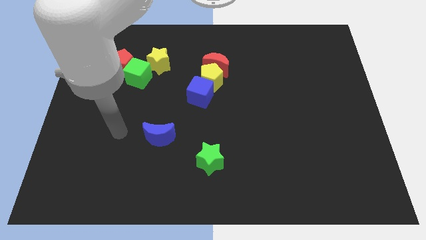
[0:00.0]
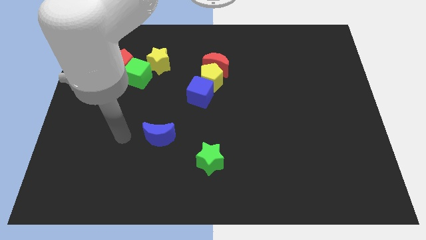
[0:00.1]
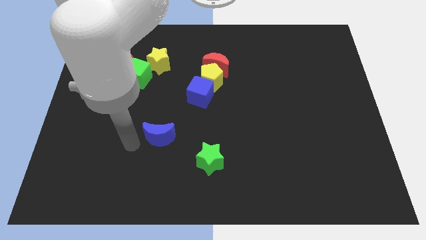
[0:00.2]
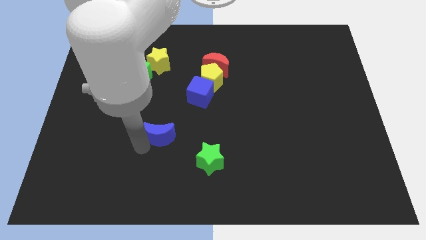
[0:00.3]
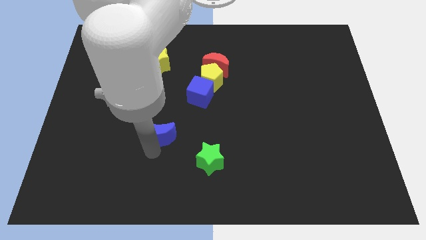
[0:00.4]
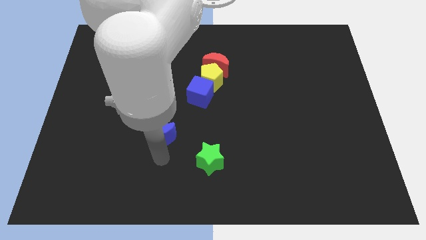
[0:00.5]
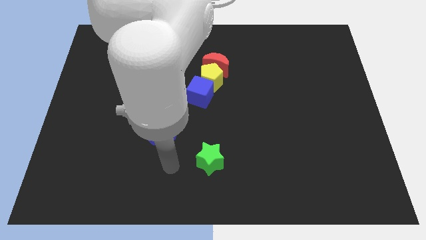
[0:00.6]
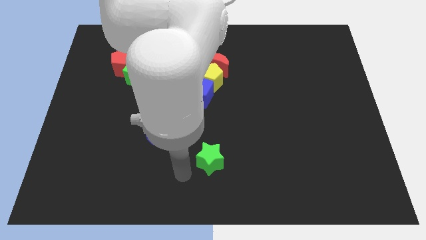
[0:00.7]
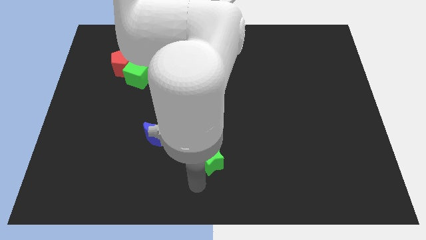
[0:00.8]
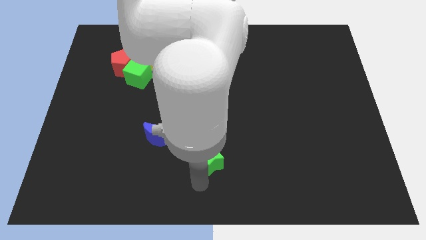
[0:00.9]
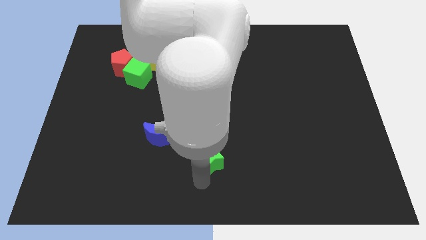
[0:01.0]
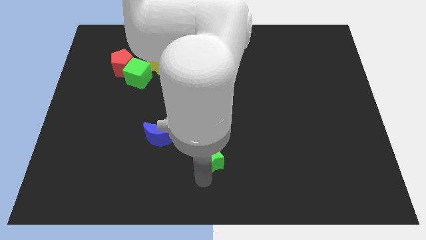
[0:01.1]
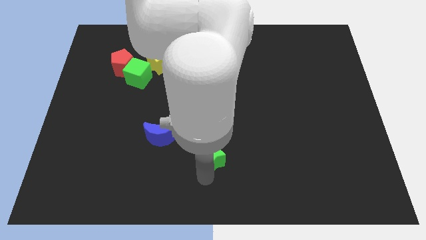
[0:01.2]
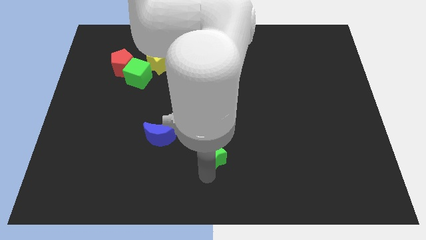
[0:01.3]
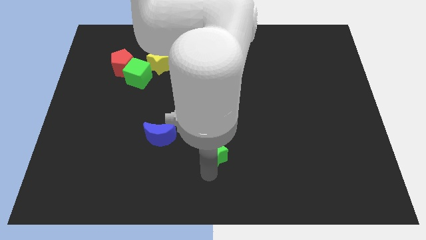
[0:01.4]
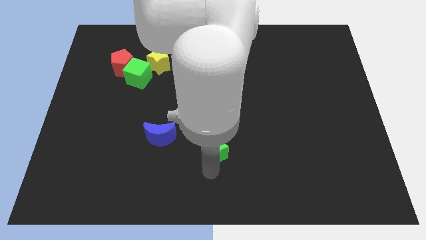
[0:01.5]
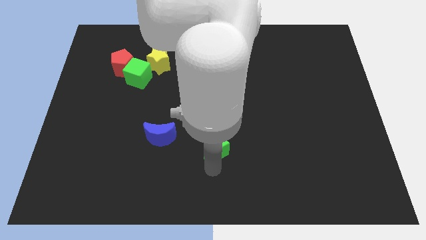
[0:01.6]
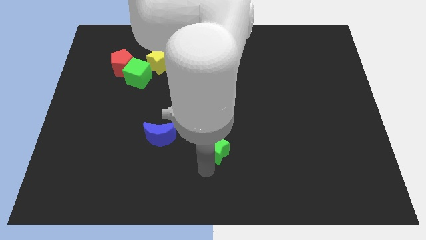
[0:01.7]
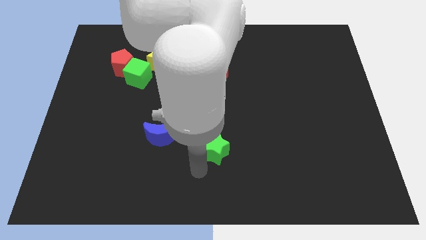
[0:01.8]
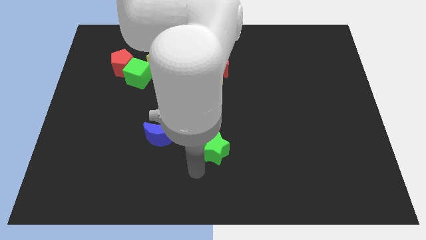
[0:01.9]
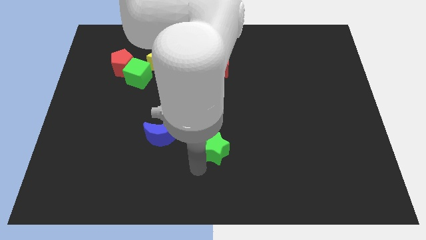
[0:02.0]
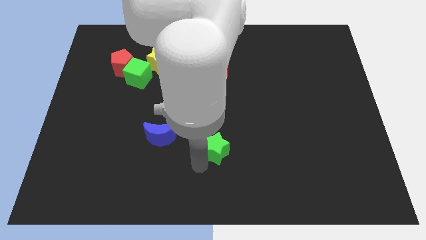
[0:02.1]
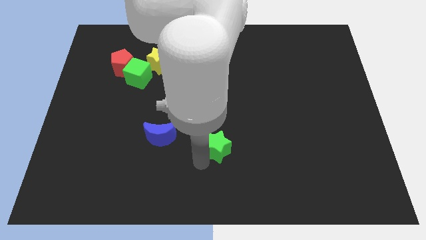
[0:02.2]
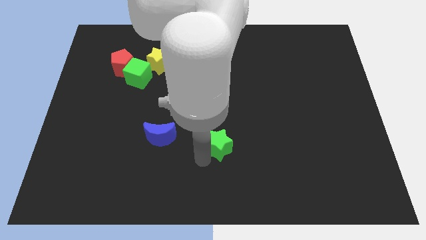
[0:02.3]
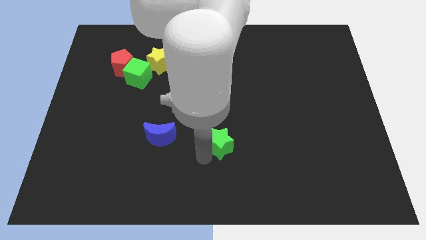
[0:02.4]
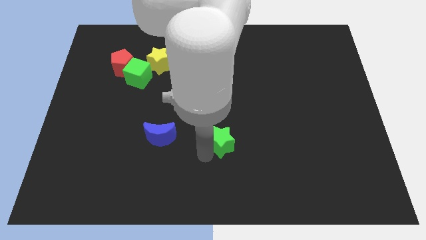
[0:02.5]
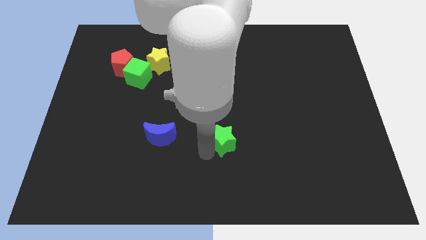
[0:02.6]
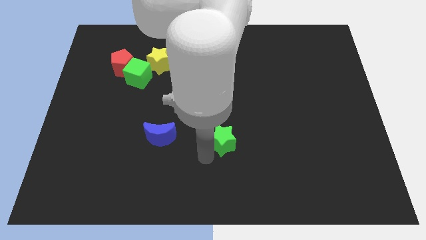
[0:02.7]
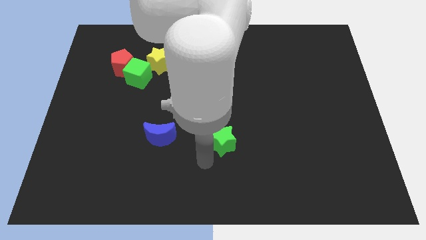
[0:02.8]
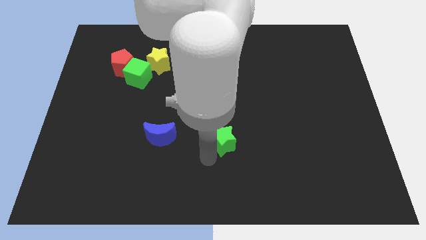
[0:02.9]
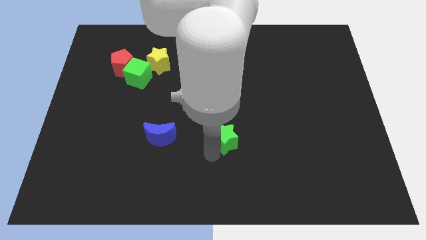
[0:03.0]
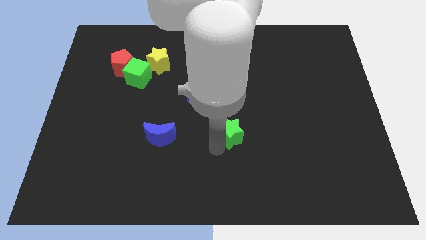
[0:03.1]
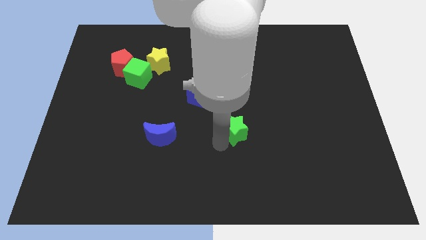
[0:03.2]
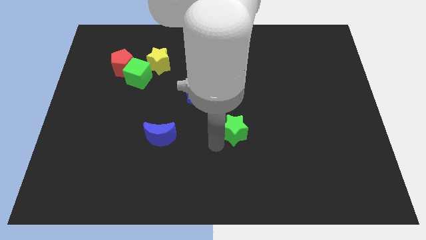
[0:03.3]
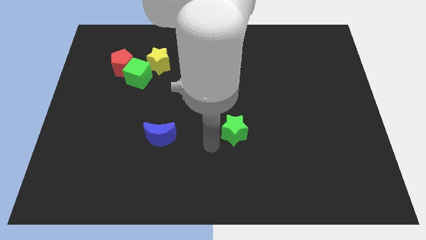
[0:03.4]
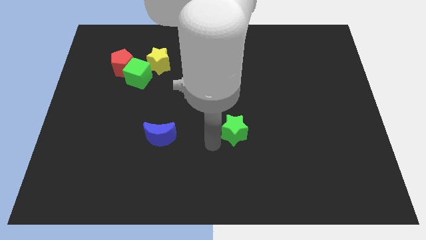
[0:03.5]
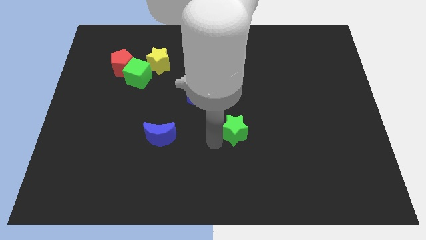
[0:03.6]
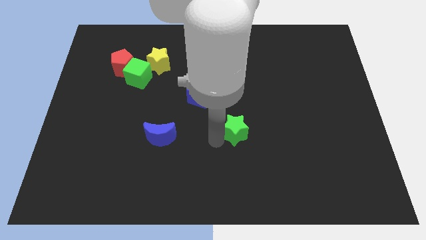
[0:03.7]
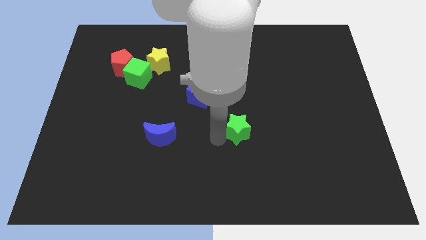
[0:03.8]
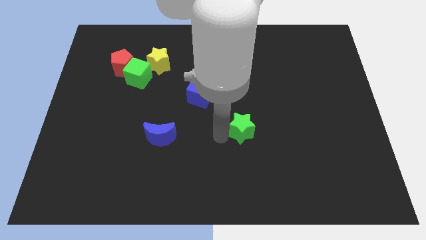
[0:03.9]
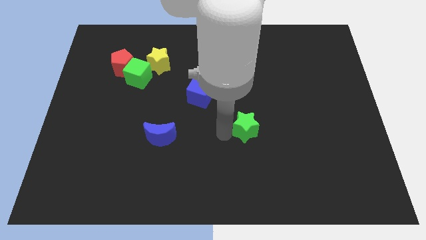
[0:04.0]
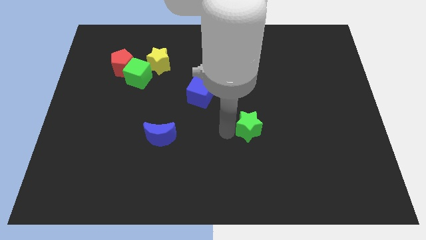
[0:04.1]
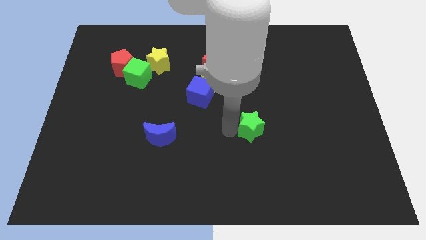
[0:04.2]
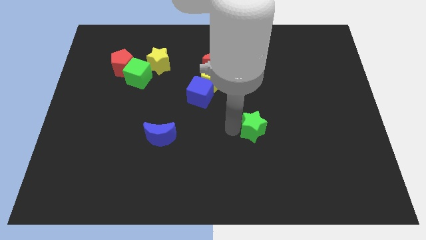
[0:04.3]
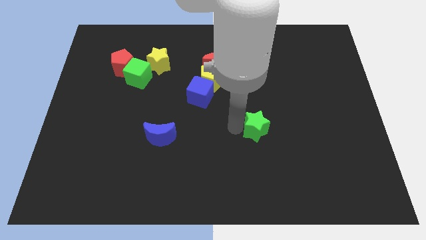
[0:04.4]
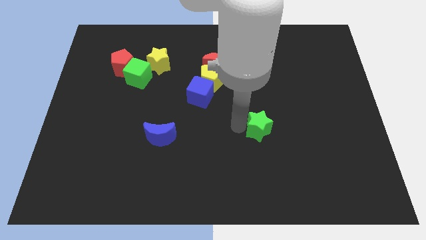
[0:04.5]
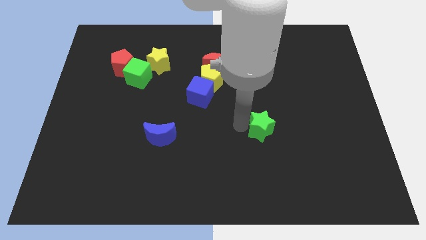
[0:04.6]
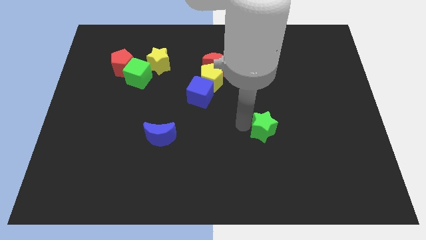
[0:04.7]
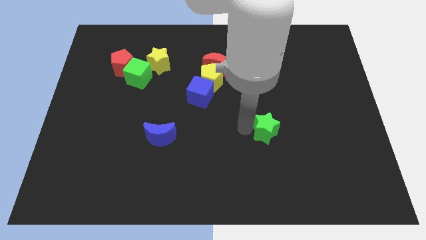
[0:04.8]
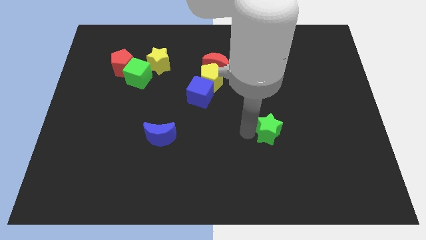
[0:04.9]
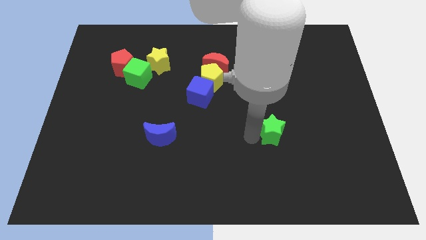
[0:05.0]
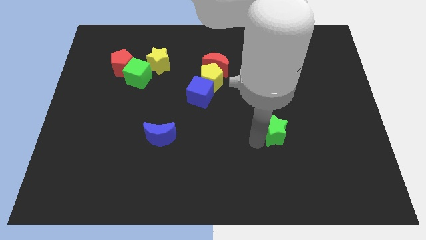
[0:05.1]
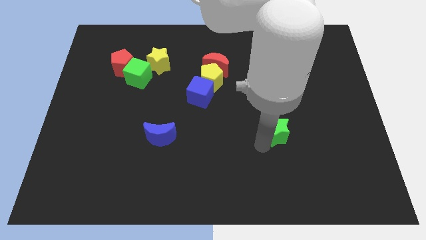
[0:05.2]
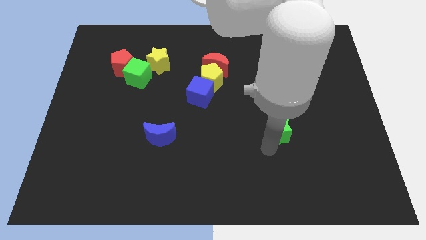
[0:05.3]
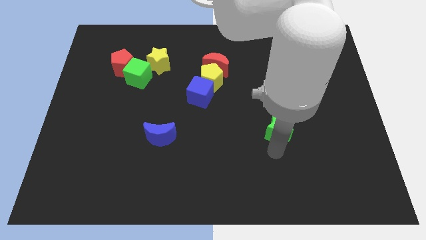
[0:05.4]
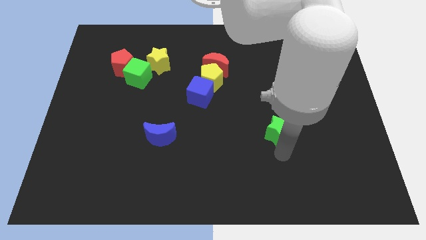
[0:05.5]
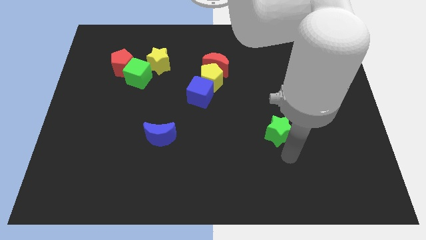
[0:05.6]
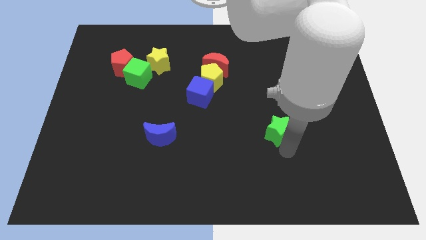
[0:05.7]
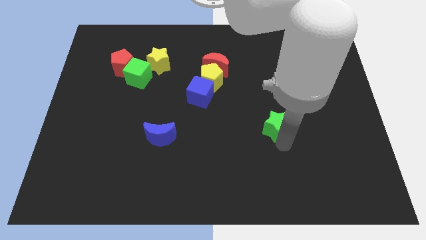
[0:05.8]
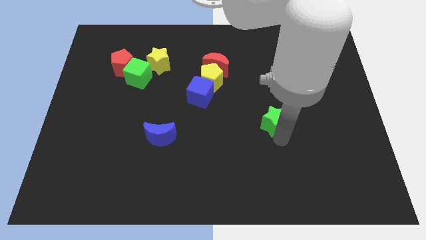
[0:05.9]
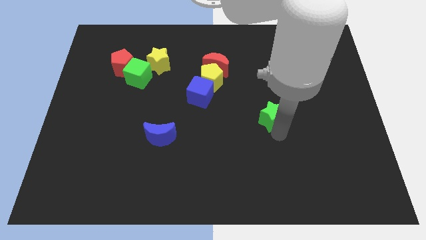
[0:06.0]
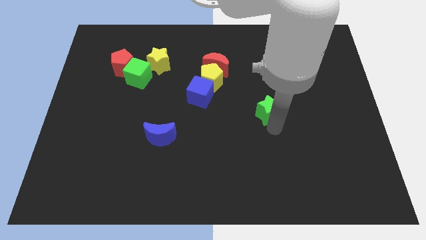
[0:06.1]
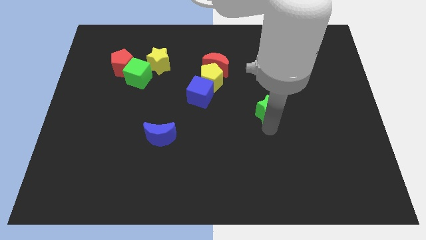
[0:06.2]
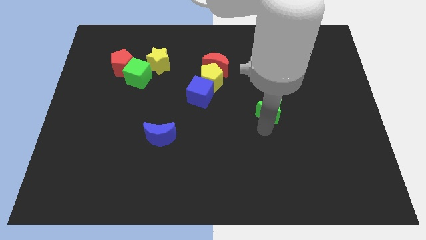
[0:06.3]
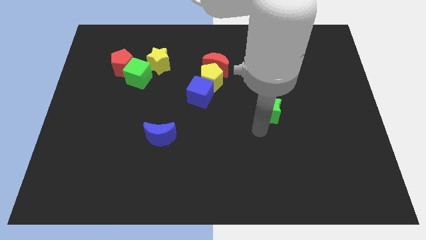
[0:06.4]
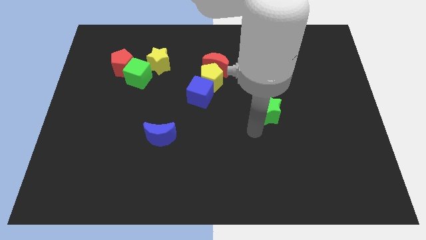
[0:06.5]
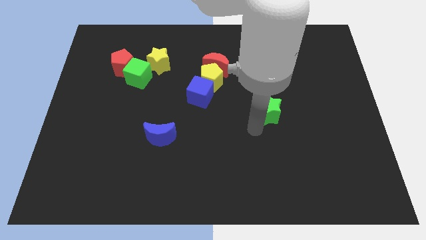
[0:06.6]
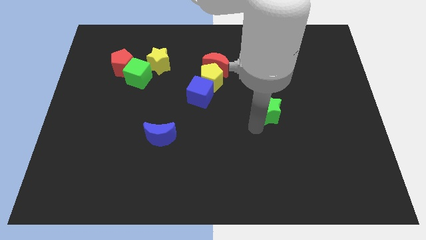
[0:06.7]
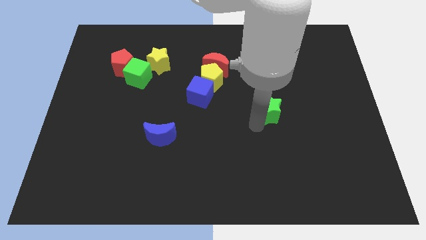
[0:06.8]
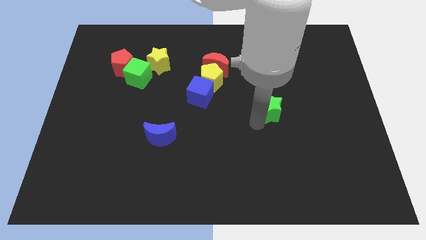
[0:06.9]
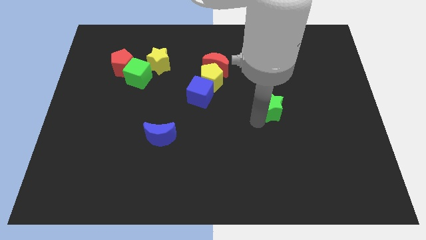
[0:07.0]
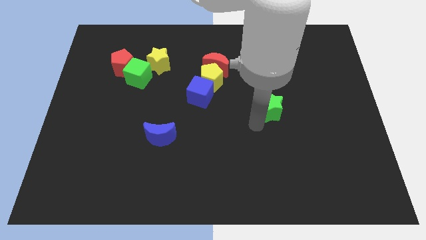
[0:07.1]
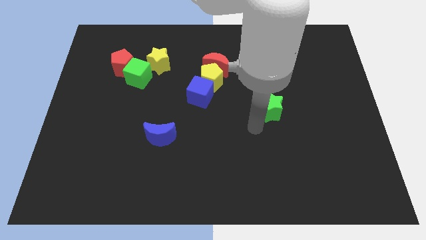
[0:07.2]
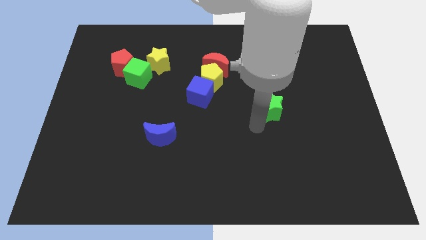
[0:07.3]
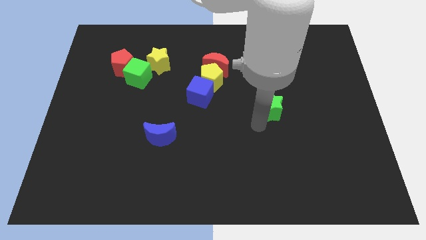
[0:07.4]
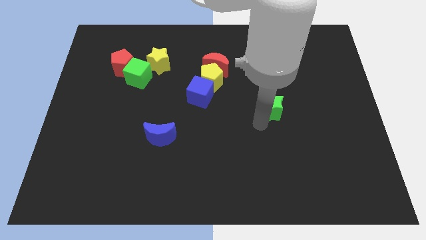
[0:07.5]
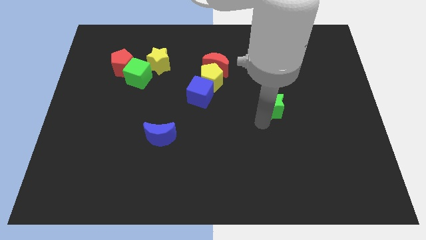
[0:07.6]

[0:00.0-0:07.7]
slide the green star up and then to the right

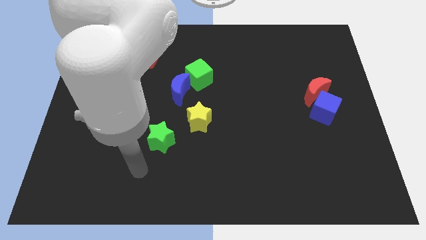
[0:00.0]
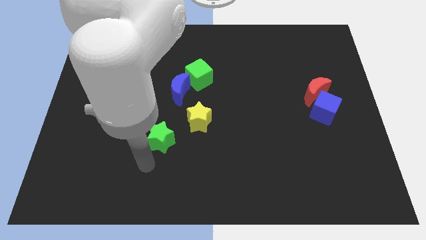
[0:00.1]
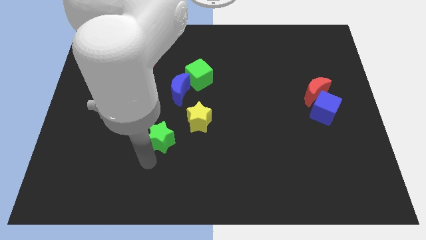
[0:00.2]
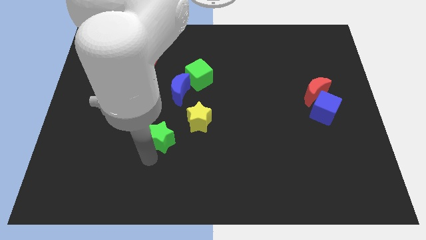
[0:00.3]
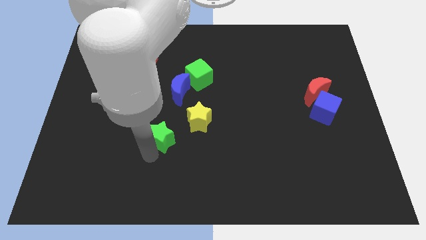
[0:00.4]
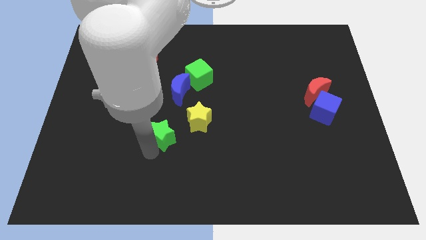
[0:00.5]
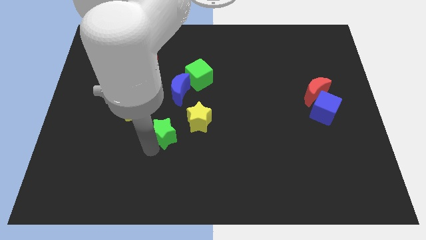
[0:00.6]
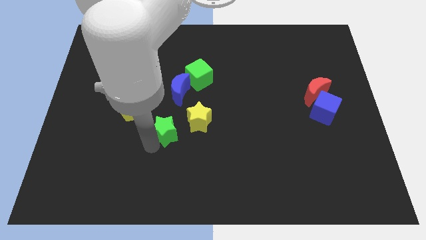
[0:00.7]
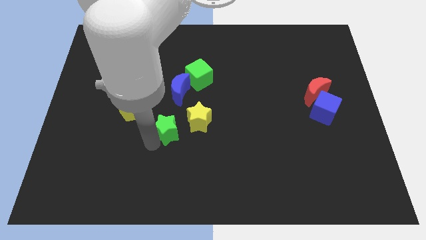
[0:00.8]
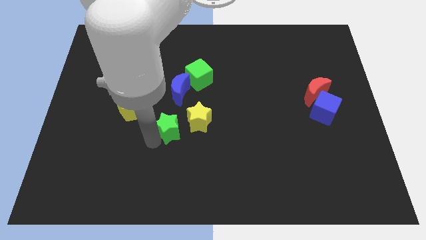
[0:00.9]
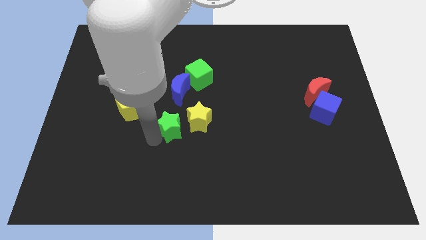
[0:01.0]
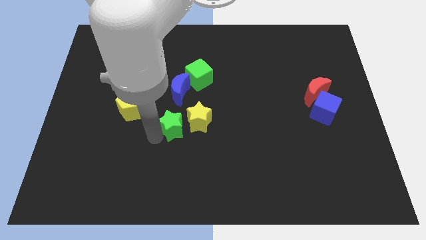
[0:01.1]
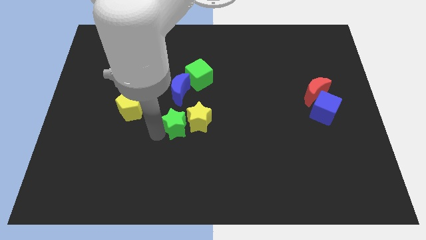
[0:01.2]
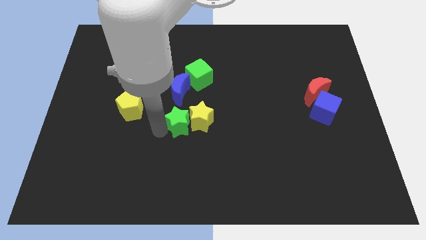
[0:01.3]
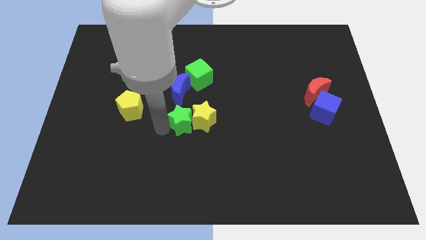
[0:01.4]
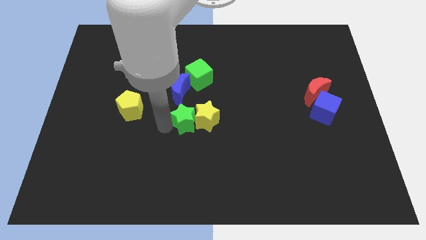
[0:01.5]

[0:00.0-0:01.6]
push the green star somewhat diagonally upwards and right
